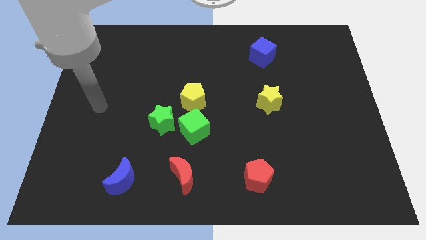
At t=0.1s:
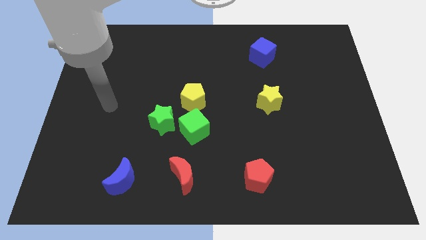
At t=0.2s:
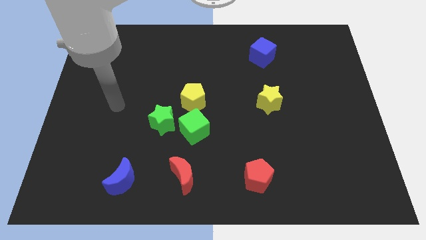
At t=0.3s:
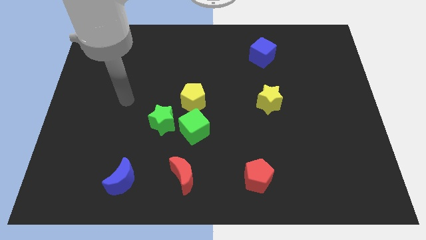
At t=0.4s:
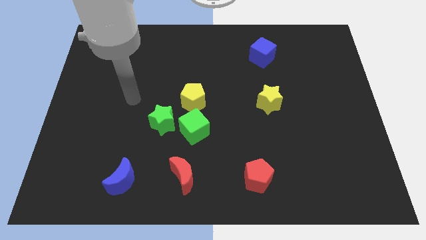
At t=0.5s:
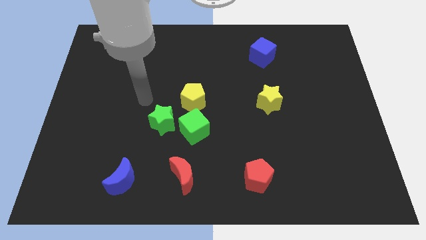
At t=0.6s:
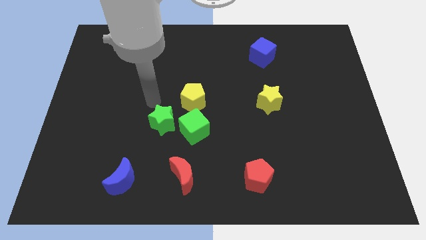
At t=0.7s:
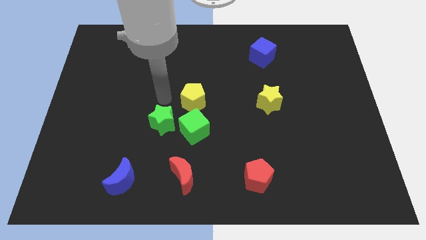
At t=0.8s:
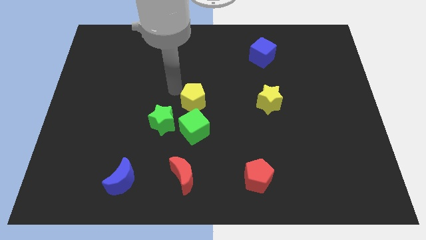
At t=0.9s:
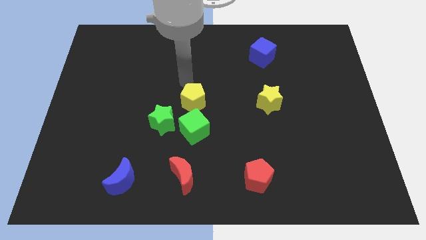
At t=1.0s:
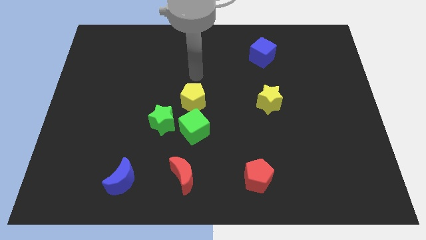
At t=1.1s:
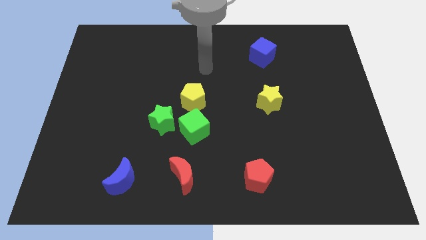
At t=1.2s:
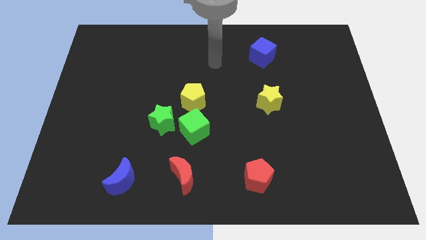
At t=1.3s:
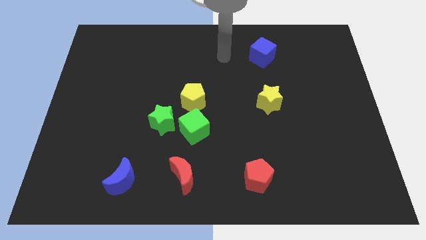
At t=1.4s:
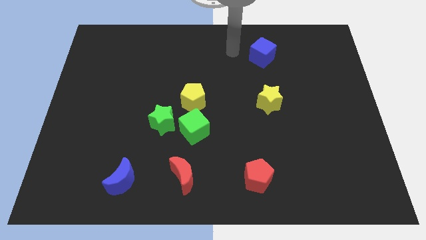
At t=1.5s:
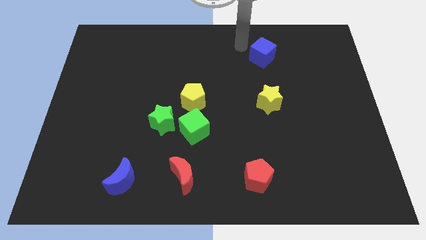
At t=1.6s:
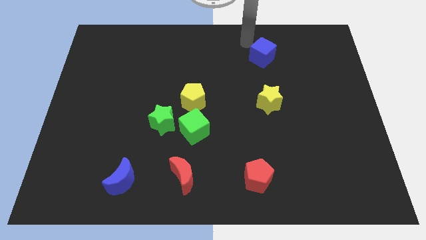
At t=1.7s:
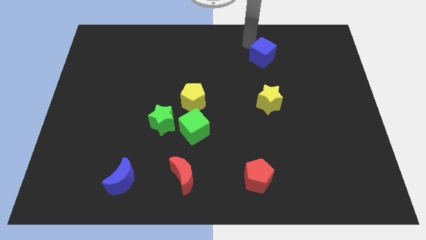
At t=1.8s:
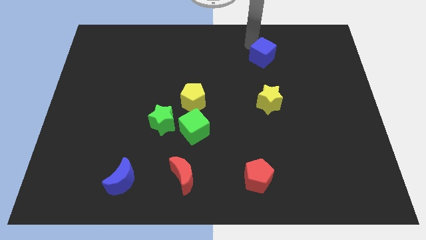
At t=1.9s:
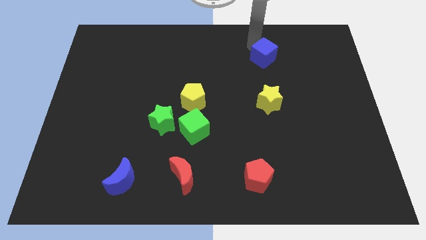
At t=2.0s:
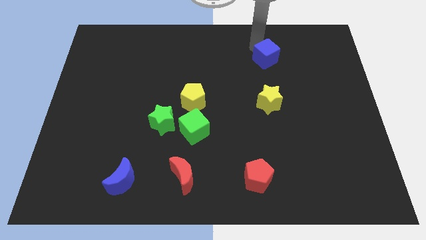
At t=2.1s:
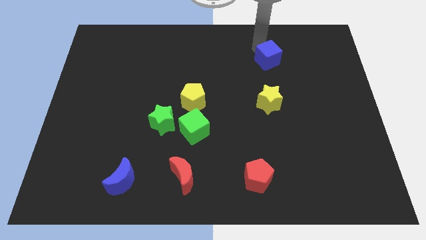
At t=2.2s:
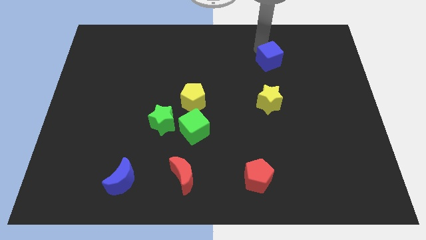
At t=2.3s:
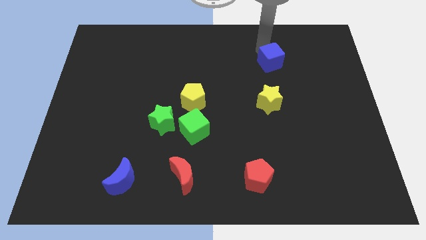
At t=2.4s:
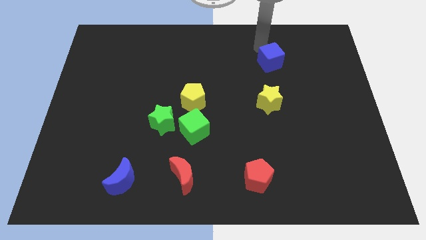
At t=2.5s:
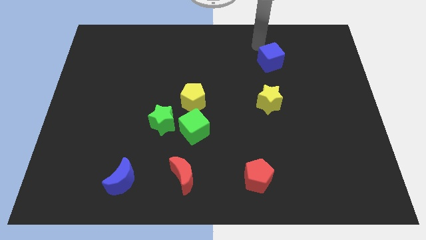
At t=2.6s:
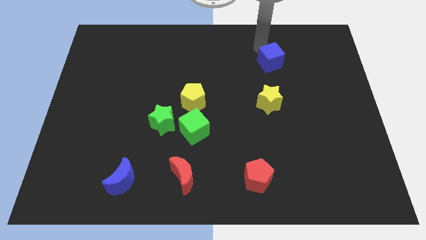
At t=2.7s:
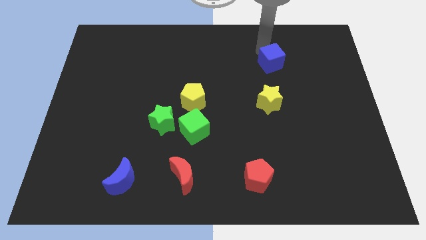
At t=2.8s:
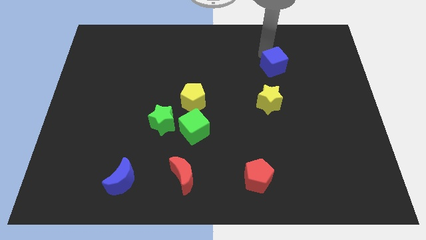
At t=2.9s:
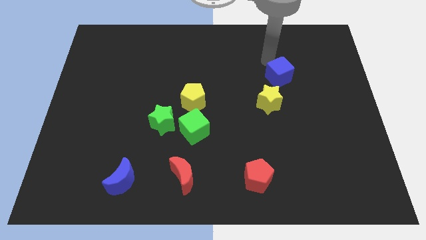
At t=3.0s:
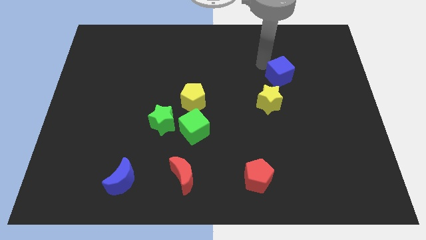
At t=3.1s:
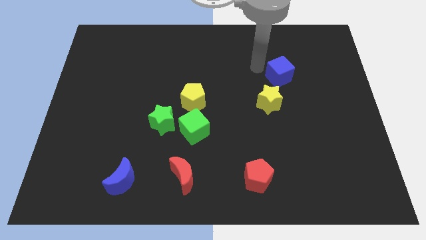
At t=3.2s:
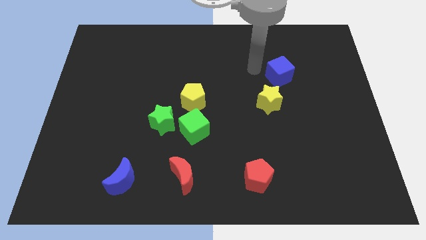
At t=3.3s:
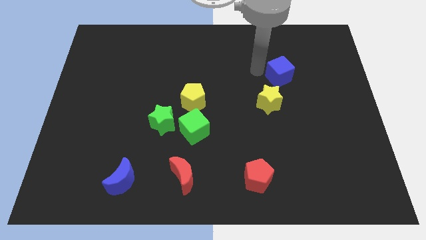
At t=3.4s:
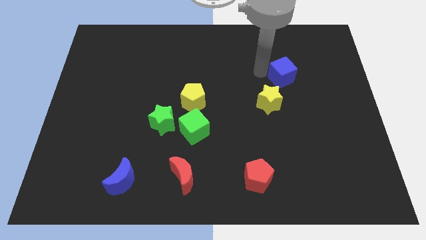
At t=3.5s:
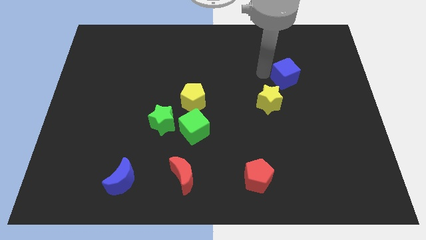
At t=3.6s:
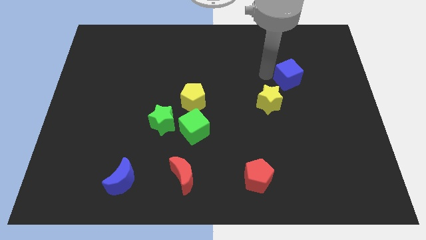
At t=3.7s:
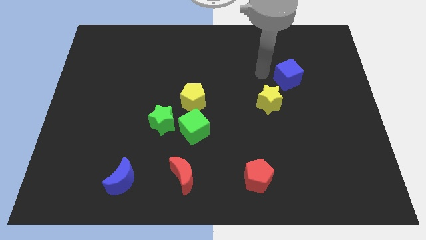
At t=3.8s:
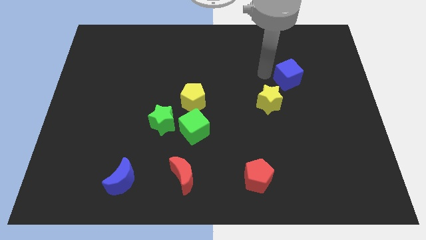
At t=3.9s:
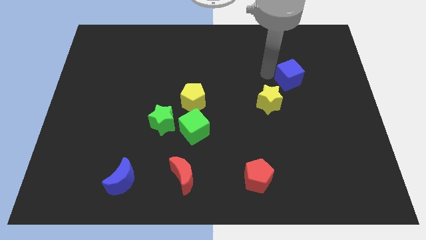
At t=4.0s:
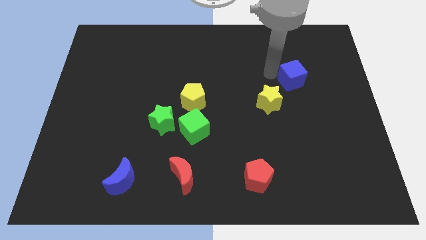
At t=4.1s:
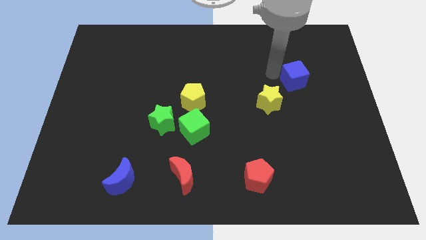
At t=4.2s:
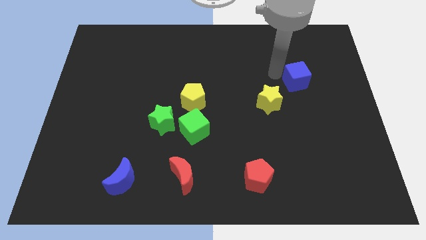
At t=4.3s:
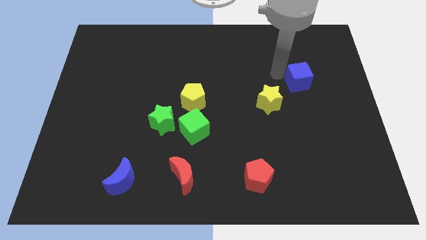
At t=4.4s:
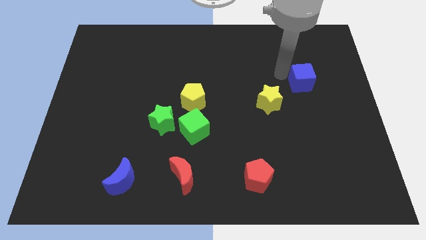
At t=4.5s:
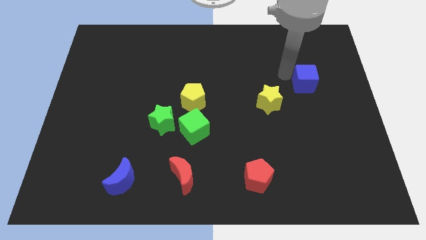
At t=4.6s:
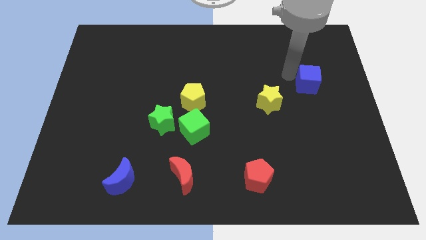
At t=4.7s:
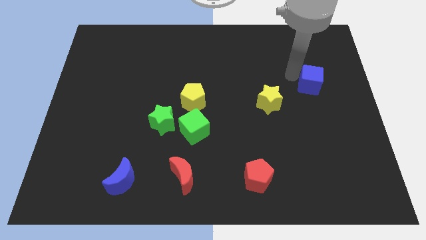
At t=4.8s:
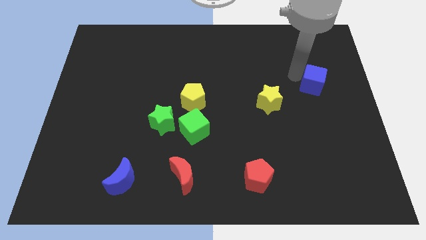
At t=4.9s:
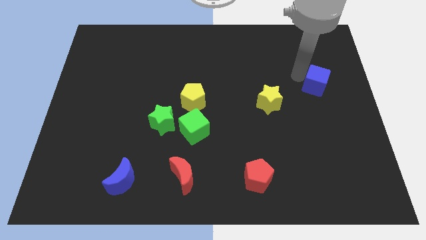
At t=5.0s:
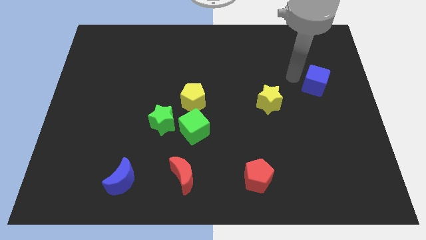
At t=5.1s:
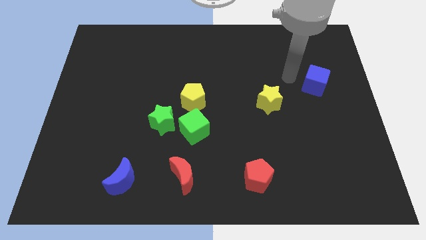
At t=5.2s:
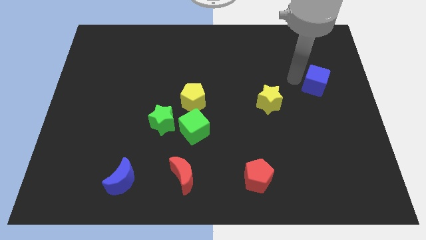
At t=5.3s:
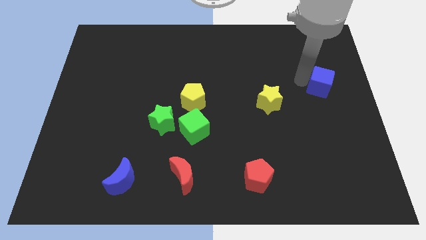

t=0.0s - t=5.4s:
move the blue cube to the center right

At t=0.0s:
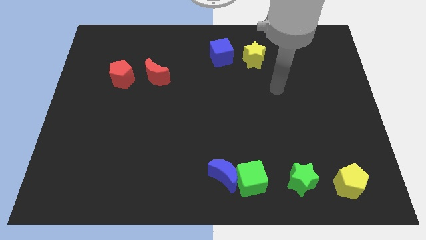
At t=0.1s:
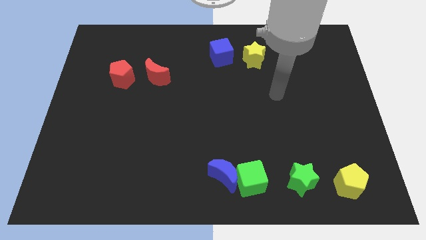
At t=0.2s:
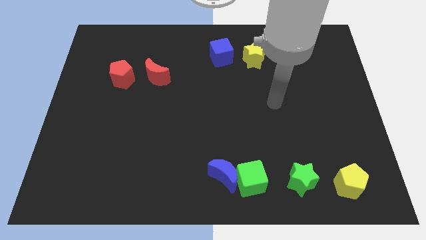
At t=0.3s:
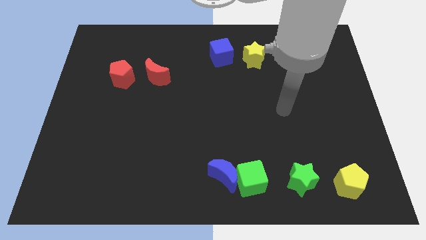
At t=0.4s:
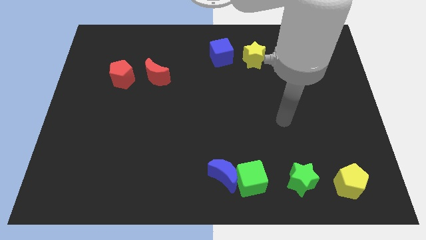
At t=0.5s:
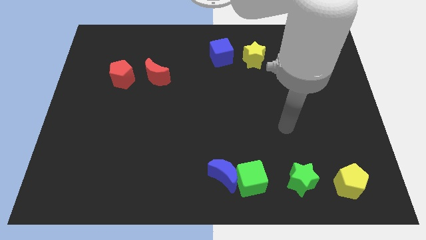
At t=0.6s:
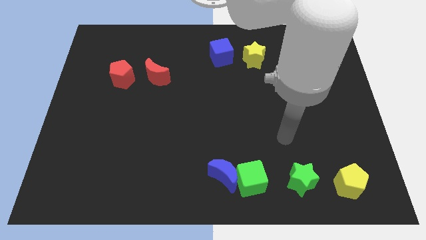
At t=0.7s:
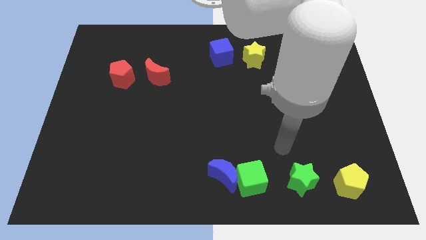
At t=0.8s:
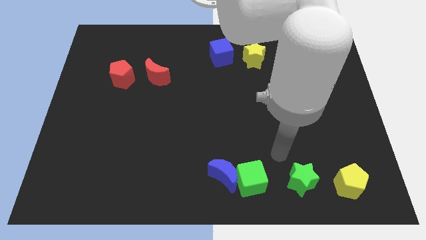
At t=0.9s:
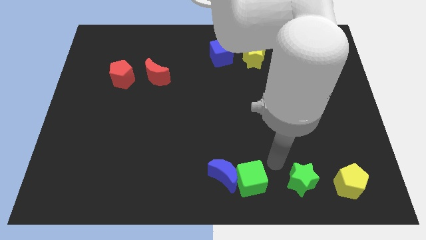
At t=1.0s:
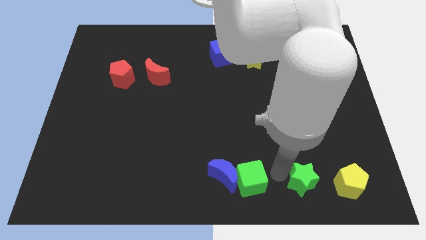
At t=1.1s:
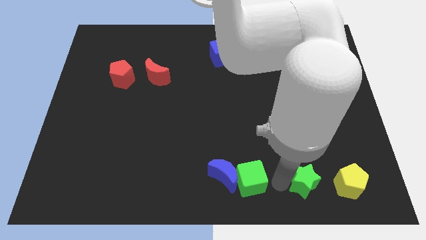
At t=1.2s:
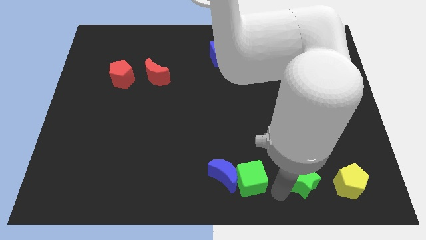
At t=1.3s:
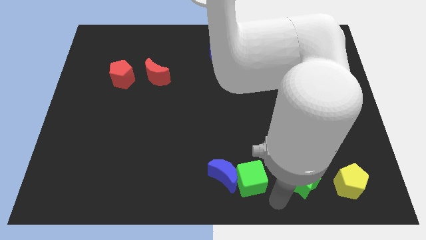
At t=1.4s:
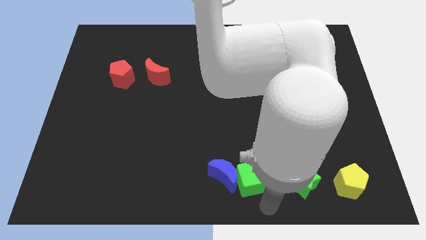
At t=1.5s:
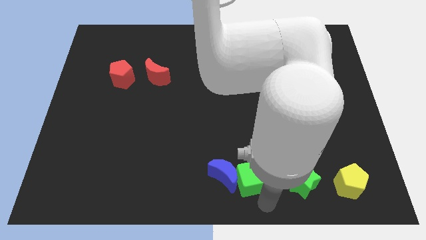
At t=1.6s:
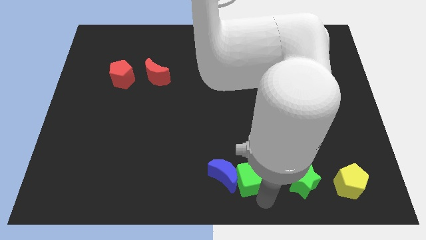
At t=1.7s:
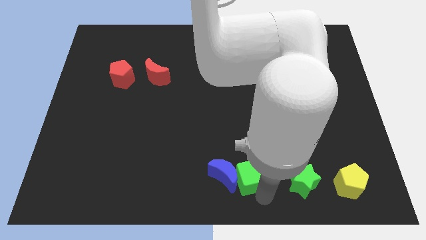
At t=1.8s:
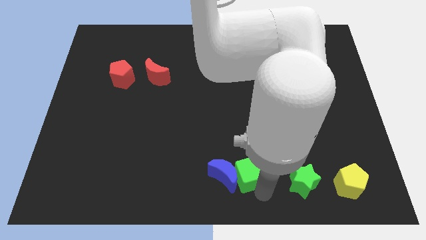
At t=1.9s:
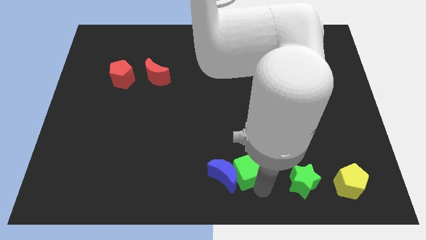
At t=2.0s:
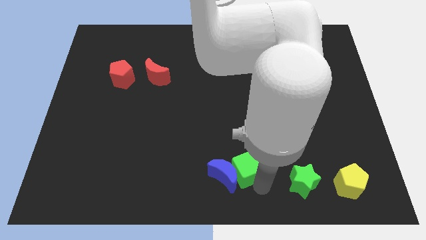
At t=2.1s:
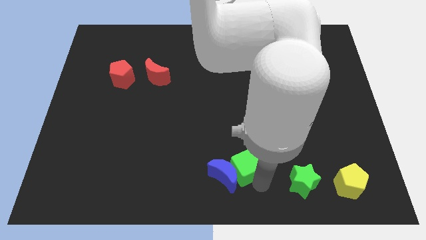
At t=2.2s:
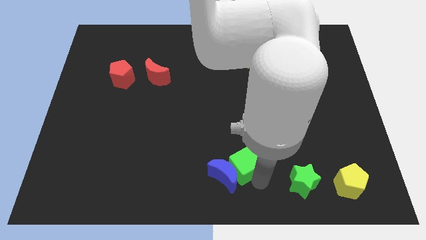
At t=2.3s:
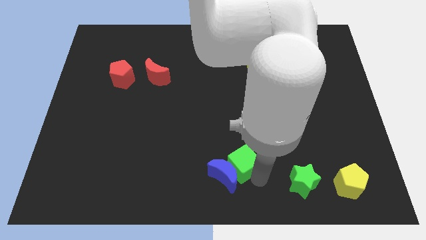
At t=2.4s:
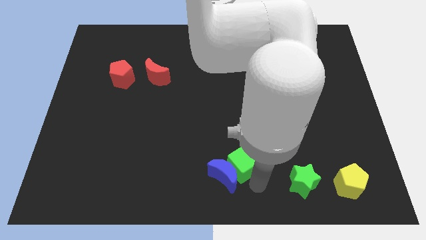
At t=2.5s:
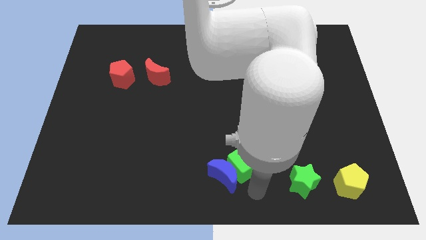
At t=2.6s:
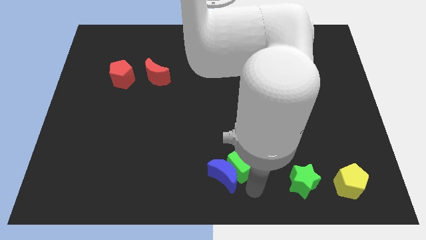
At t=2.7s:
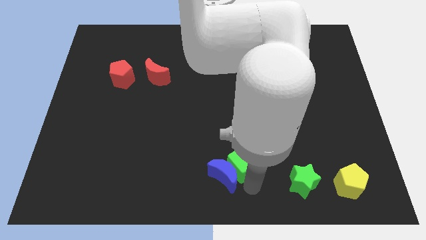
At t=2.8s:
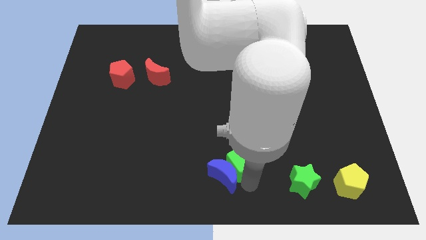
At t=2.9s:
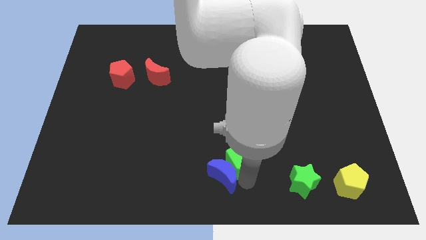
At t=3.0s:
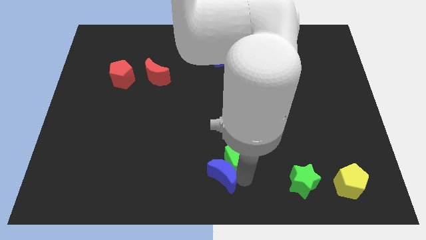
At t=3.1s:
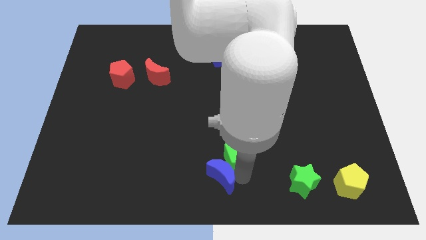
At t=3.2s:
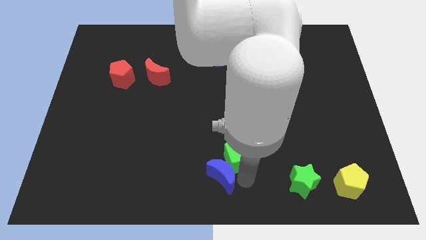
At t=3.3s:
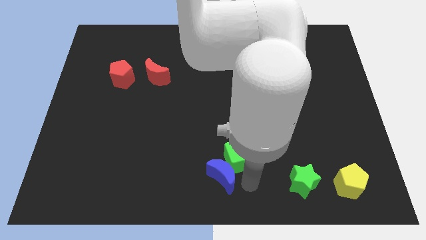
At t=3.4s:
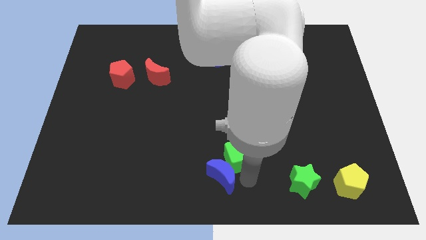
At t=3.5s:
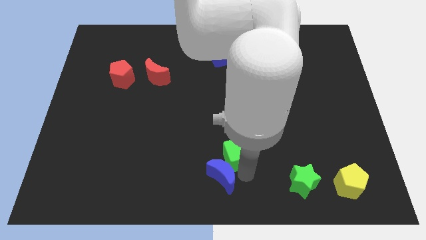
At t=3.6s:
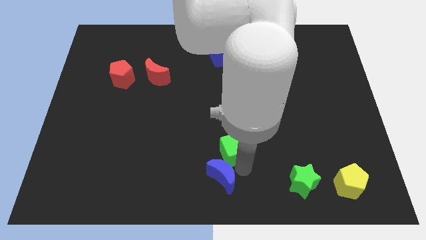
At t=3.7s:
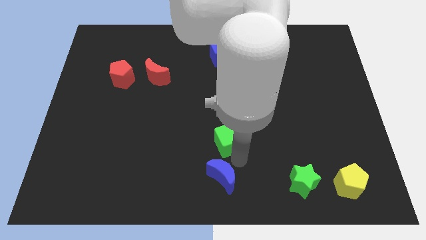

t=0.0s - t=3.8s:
push the green cube to the middle of the board
